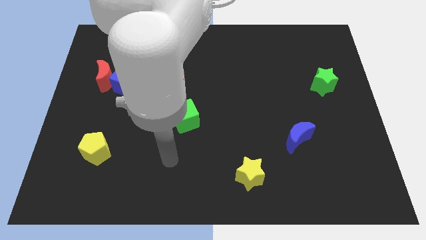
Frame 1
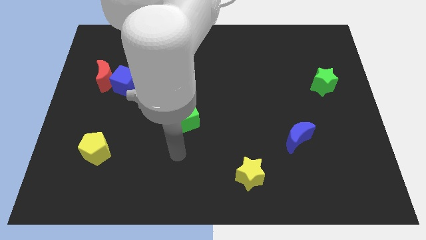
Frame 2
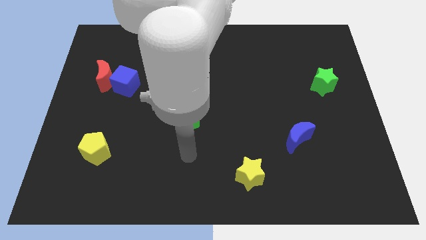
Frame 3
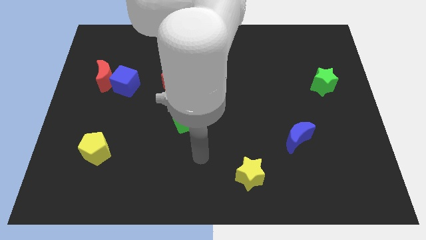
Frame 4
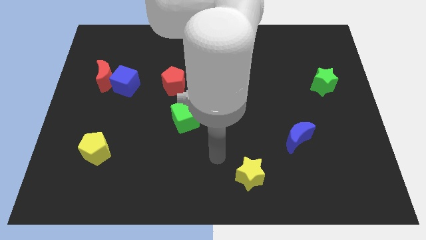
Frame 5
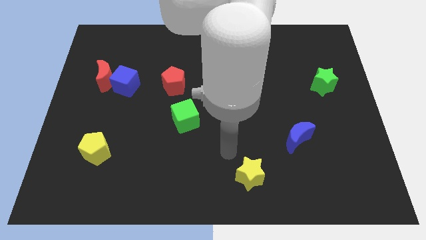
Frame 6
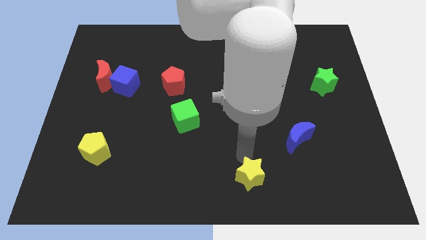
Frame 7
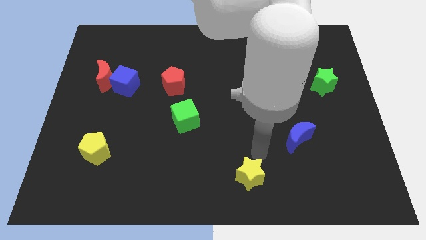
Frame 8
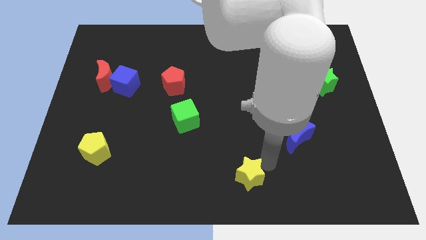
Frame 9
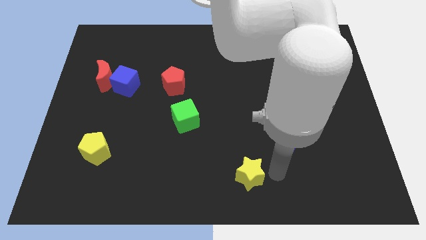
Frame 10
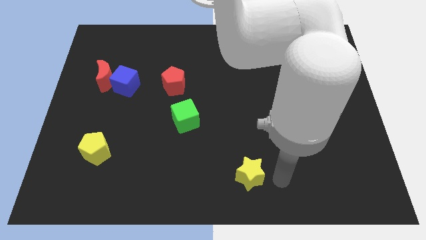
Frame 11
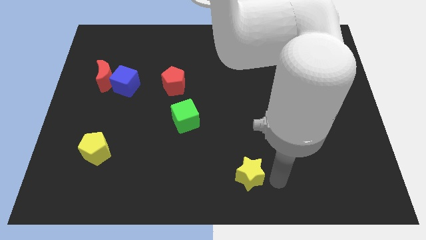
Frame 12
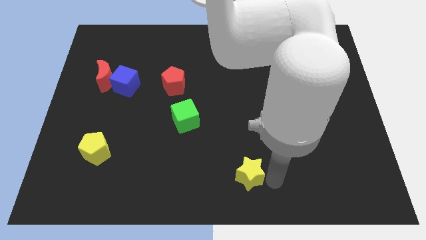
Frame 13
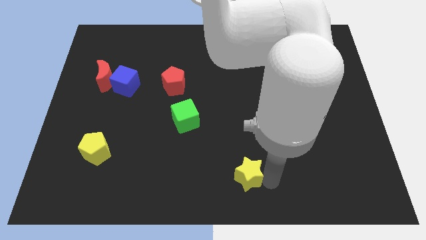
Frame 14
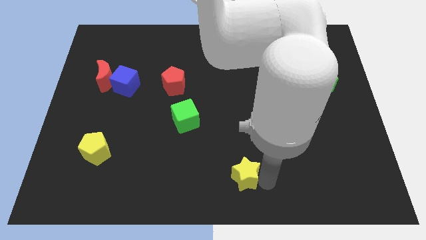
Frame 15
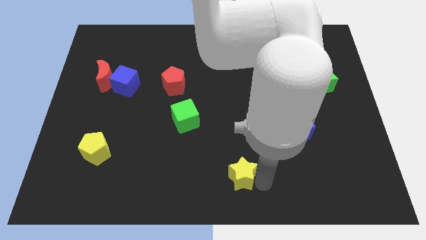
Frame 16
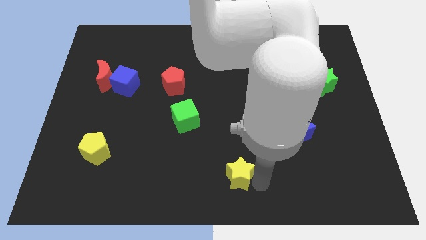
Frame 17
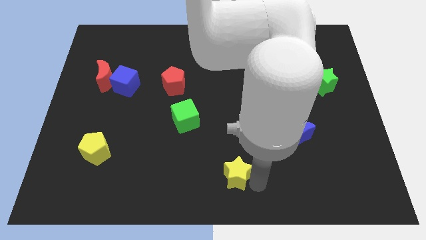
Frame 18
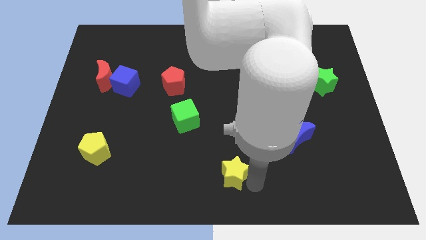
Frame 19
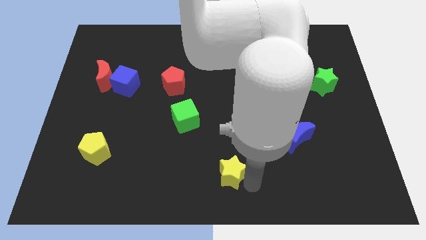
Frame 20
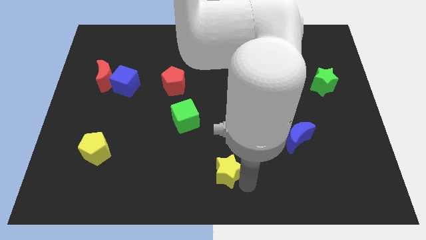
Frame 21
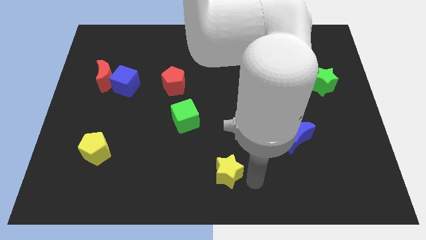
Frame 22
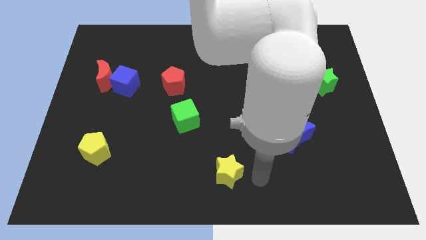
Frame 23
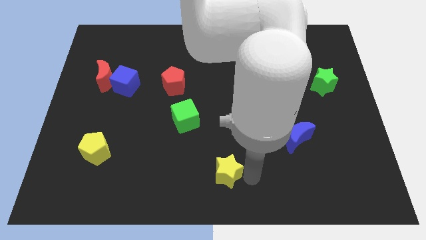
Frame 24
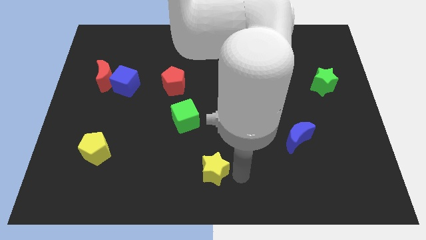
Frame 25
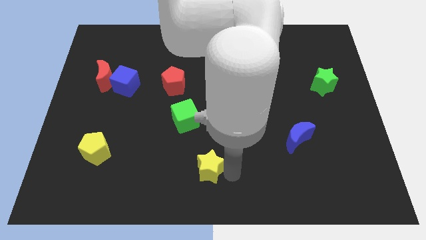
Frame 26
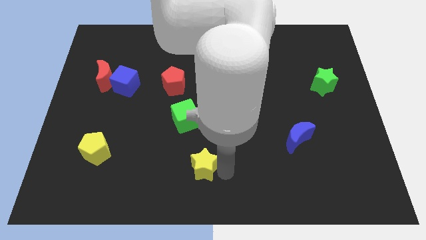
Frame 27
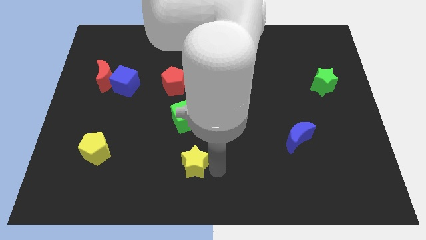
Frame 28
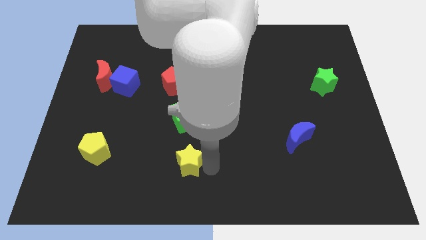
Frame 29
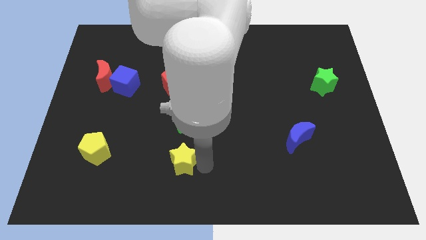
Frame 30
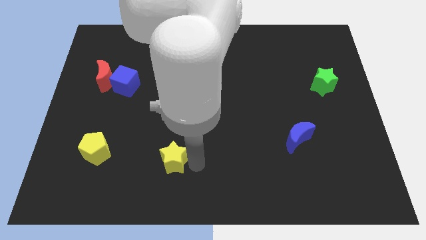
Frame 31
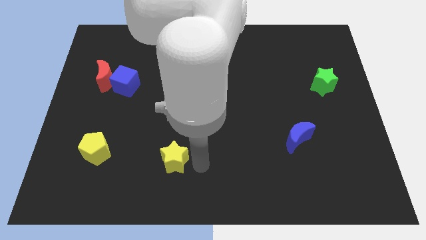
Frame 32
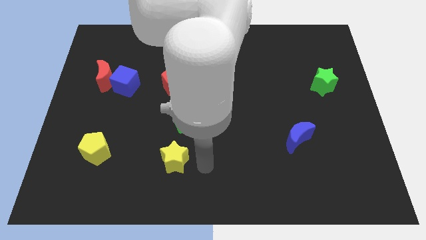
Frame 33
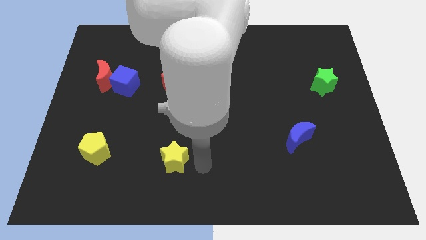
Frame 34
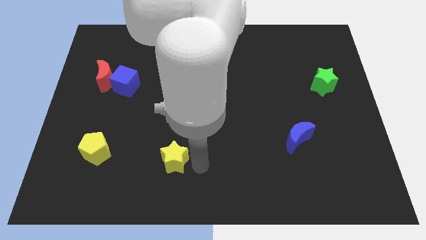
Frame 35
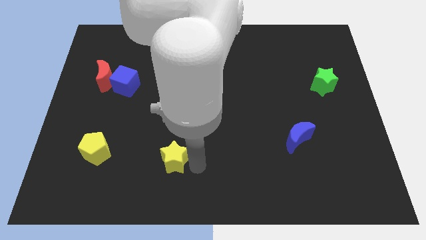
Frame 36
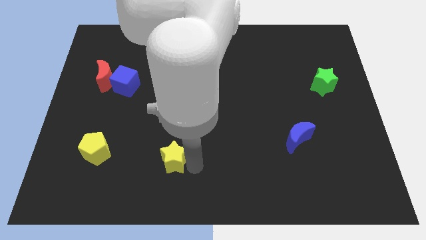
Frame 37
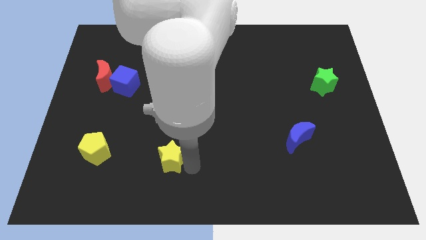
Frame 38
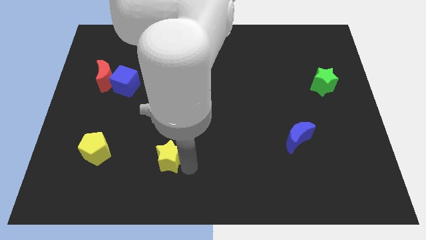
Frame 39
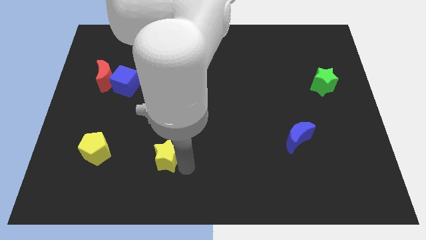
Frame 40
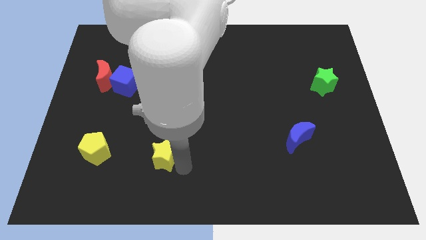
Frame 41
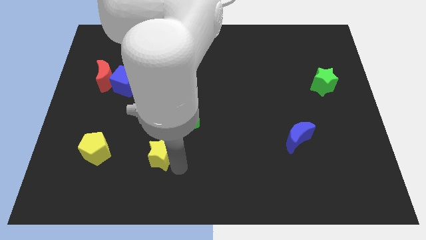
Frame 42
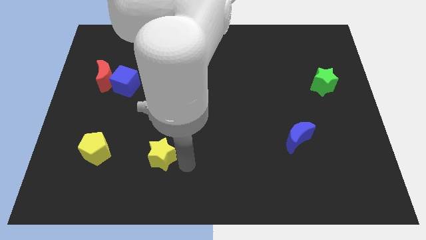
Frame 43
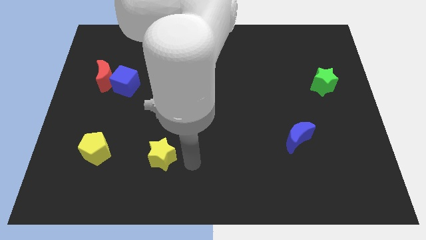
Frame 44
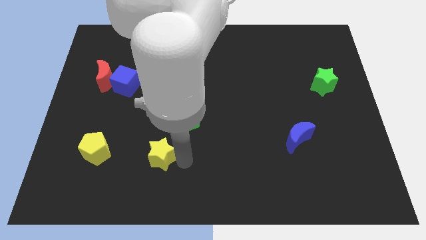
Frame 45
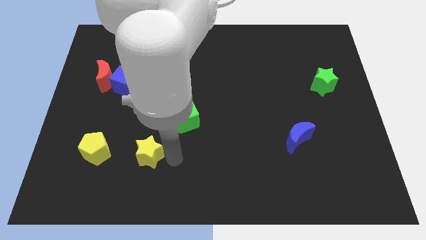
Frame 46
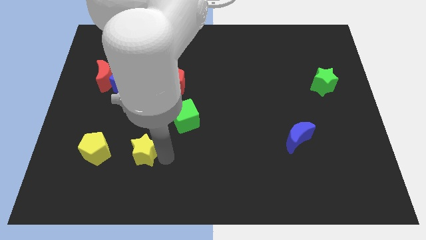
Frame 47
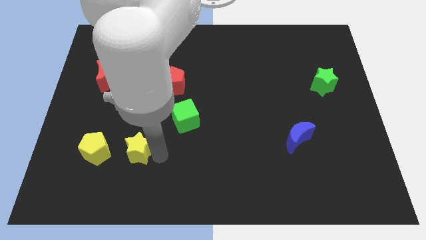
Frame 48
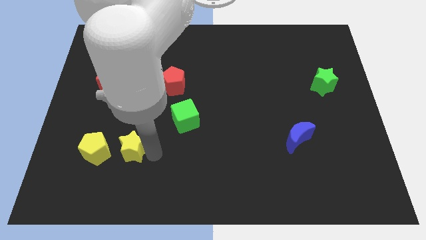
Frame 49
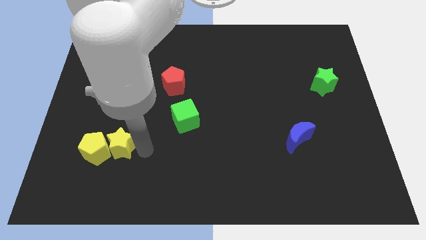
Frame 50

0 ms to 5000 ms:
slide the yellow star next to the yellow pentagon

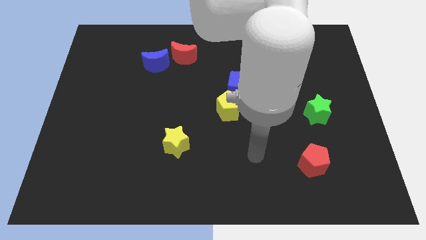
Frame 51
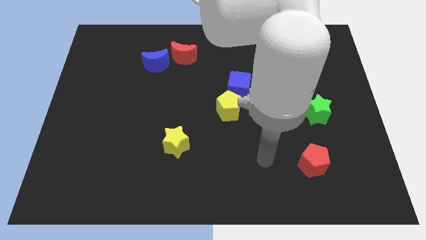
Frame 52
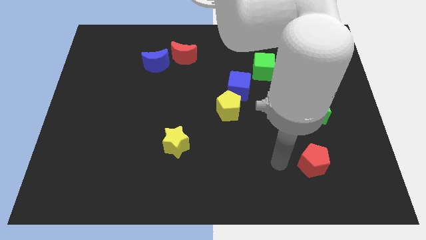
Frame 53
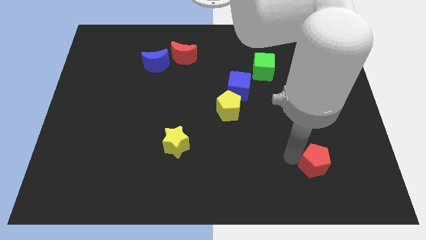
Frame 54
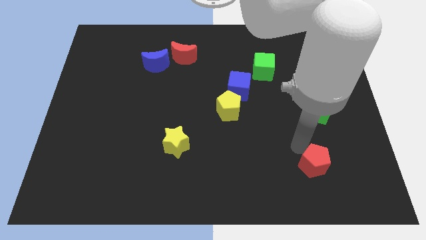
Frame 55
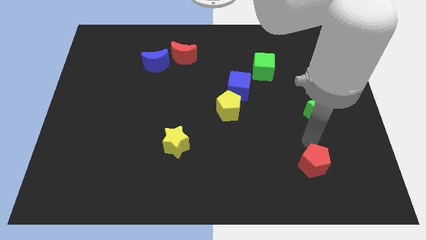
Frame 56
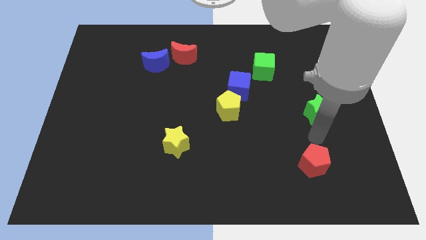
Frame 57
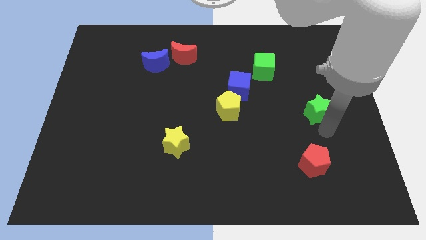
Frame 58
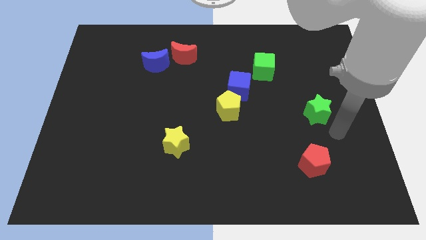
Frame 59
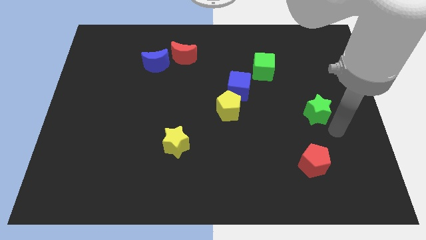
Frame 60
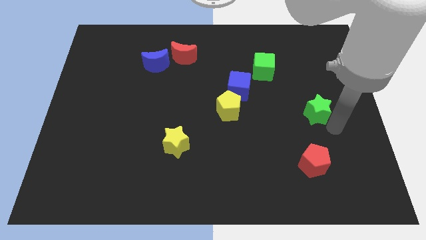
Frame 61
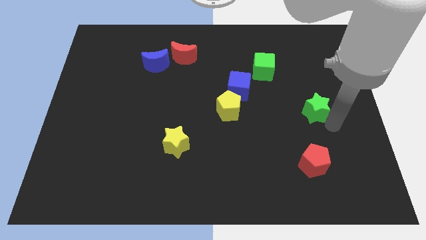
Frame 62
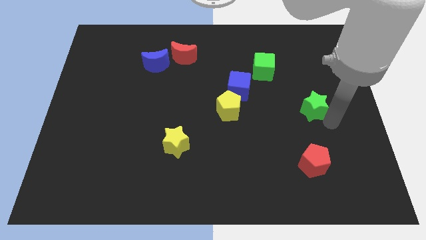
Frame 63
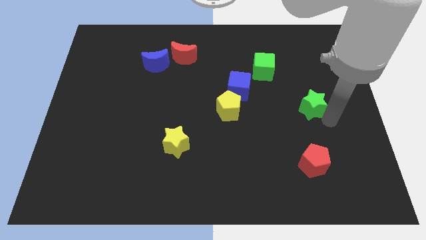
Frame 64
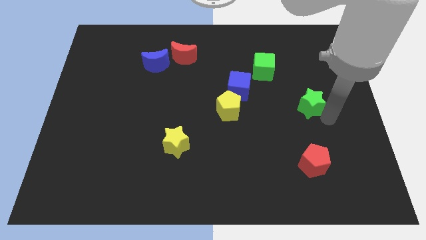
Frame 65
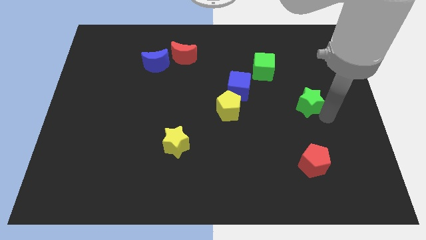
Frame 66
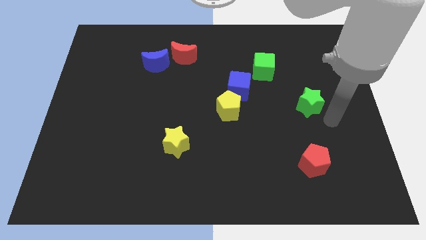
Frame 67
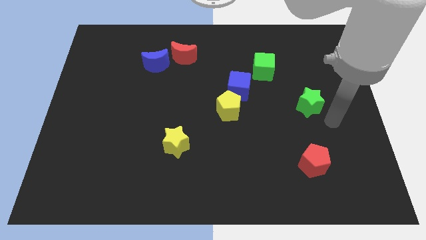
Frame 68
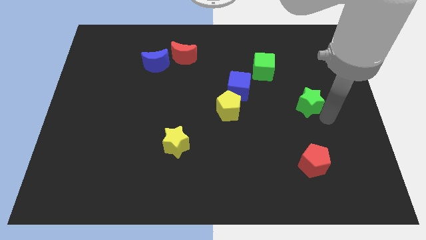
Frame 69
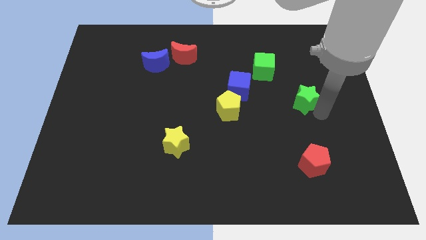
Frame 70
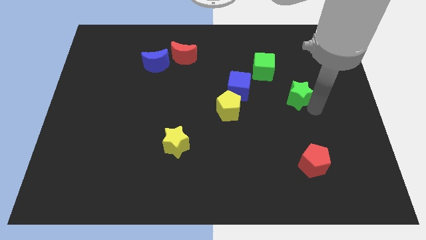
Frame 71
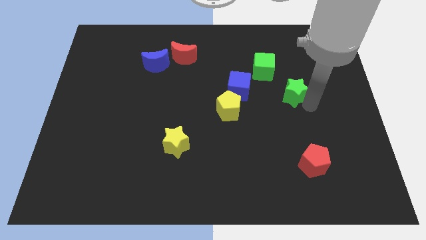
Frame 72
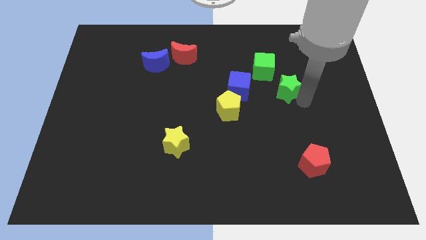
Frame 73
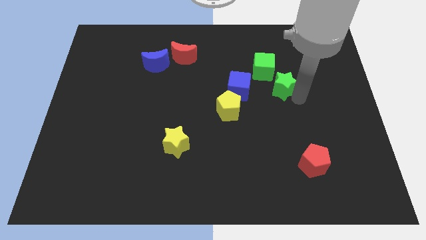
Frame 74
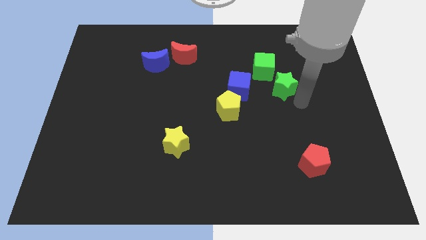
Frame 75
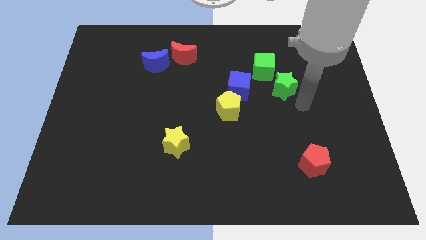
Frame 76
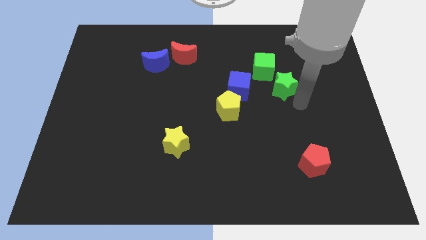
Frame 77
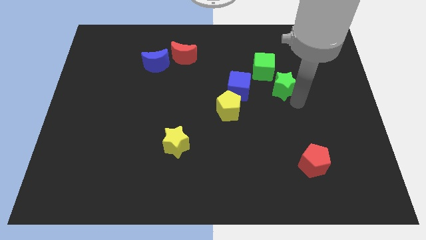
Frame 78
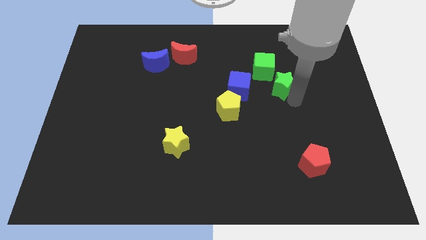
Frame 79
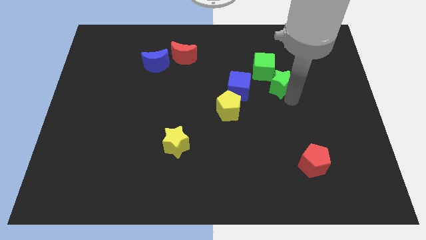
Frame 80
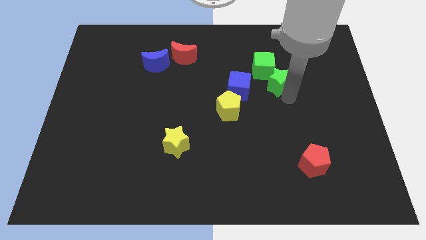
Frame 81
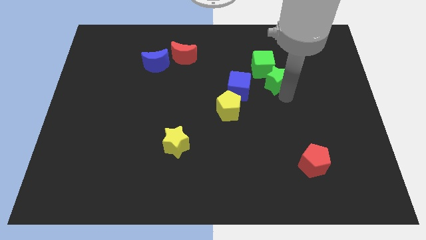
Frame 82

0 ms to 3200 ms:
put the green star to the green cube
